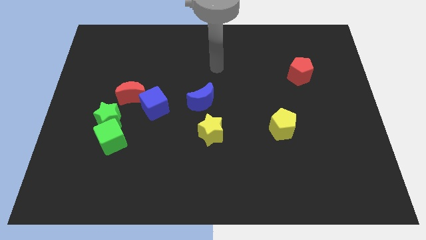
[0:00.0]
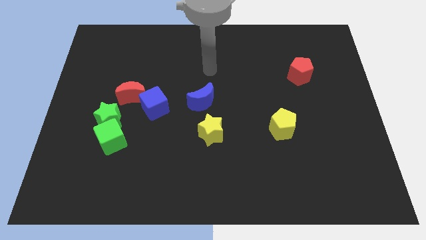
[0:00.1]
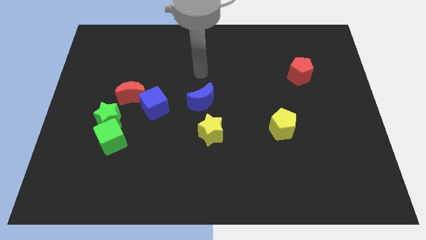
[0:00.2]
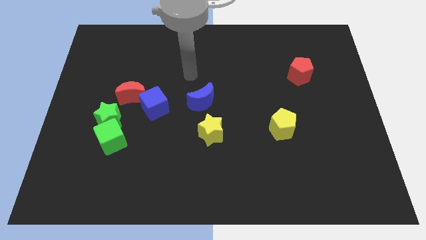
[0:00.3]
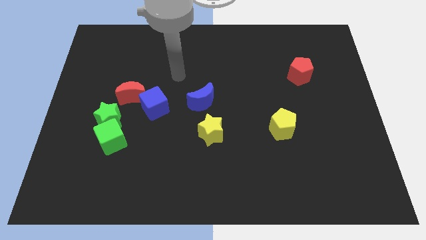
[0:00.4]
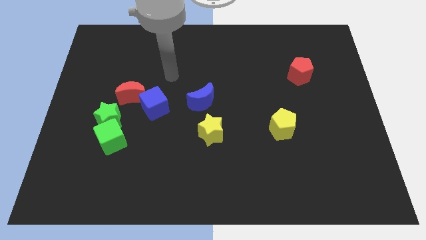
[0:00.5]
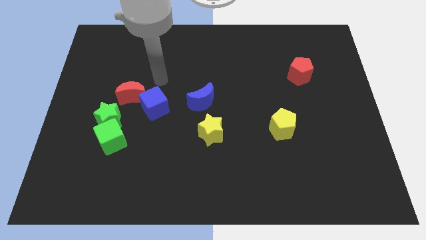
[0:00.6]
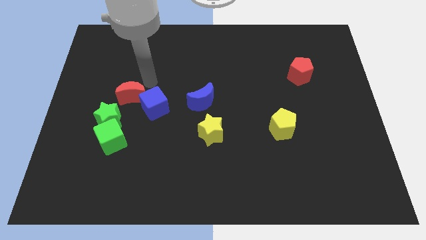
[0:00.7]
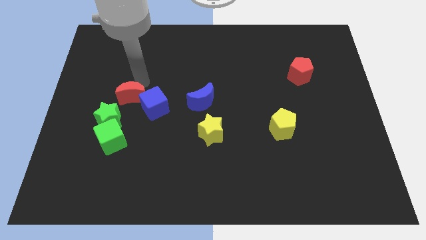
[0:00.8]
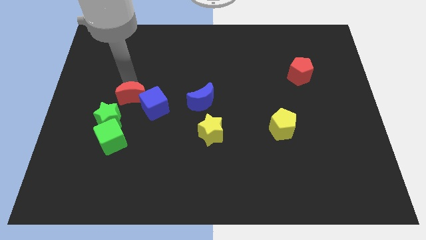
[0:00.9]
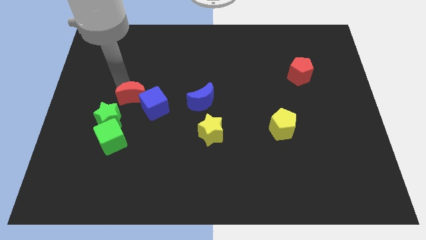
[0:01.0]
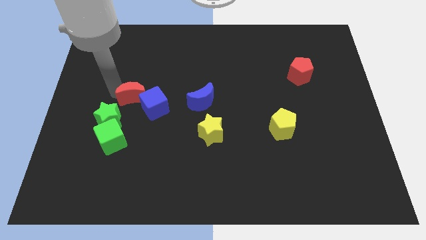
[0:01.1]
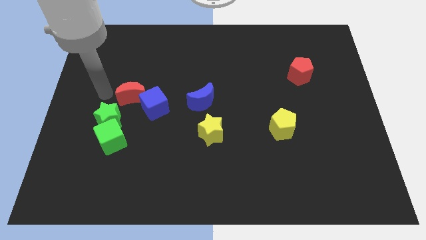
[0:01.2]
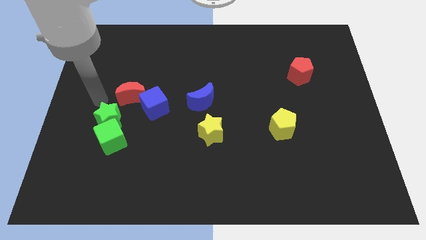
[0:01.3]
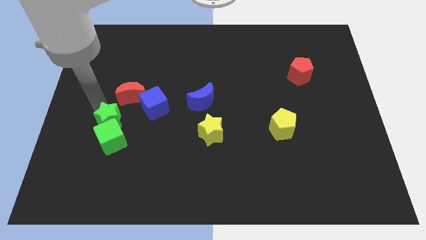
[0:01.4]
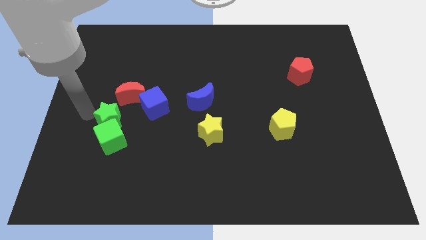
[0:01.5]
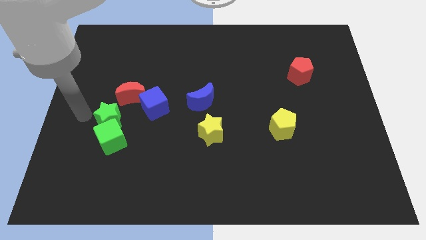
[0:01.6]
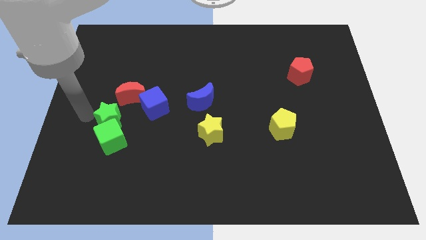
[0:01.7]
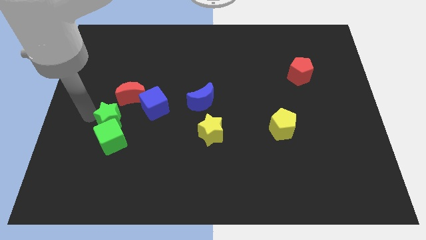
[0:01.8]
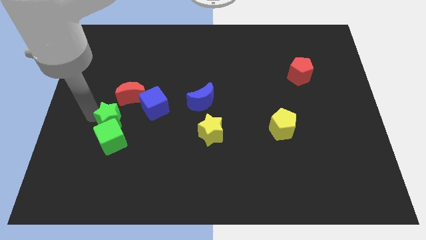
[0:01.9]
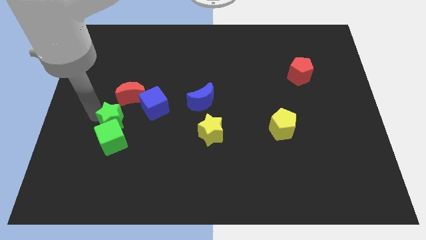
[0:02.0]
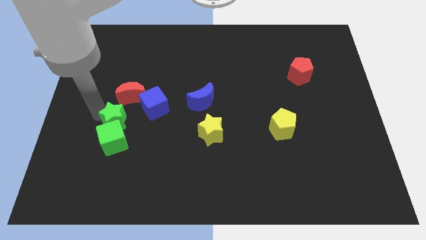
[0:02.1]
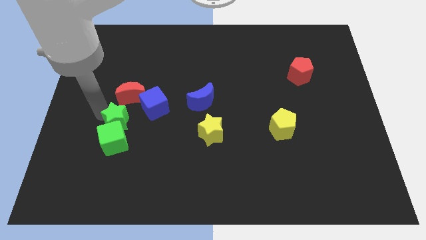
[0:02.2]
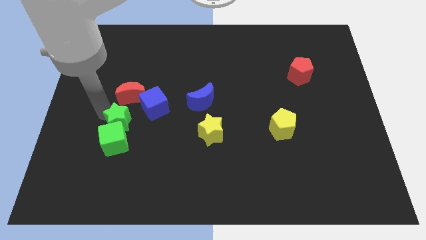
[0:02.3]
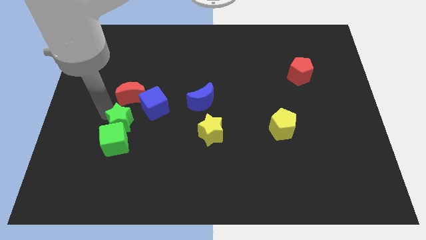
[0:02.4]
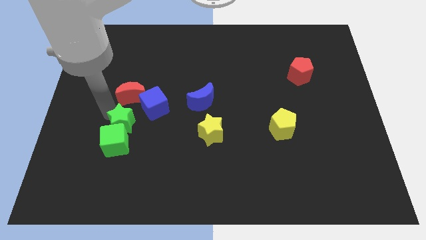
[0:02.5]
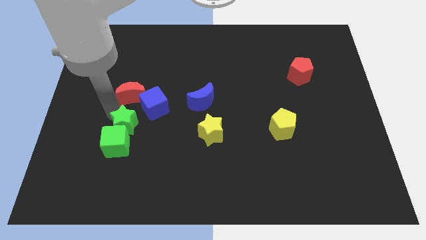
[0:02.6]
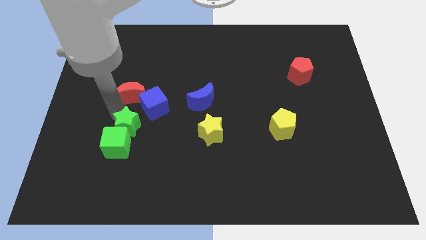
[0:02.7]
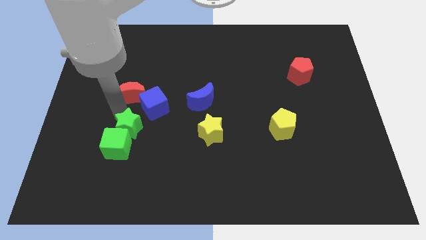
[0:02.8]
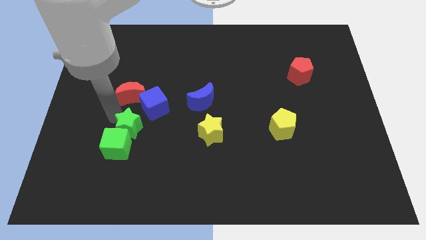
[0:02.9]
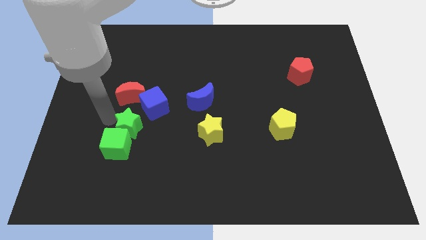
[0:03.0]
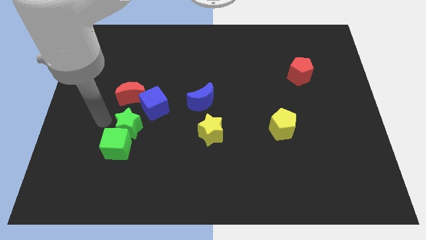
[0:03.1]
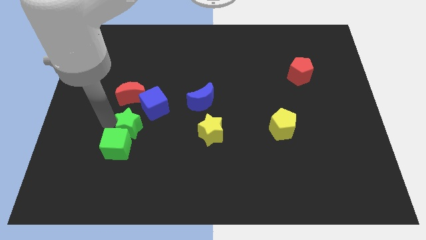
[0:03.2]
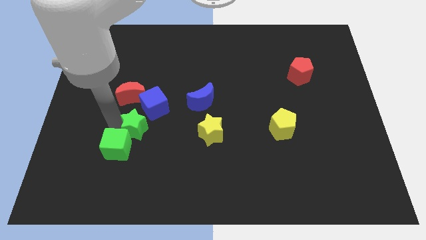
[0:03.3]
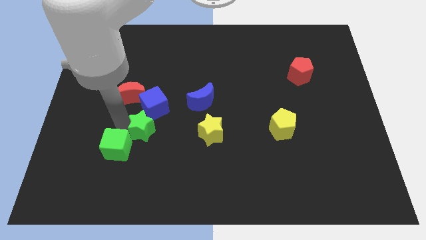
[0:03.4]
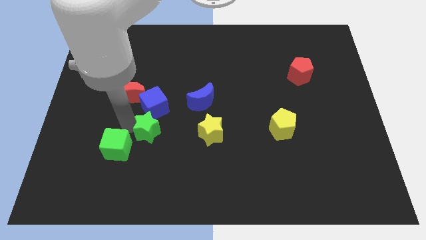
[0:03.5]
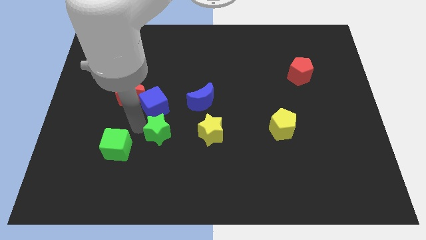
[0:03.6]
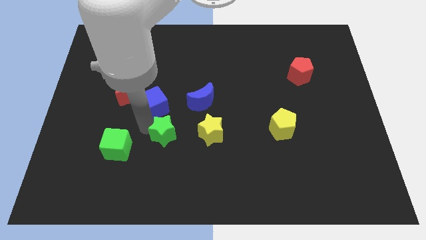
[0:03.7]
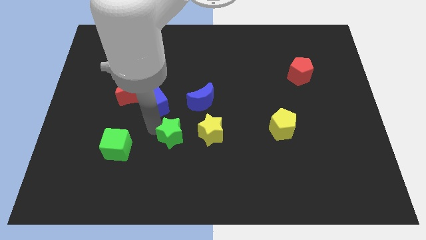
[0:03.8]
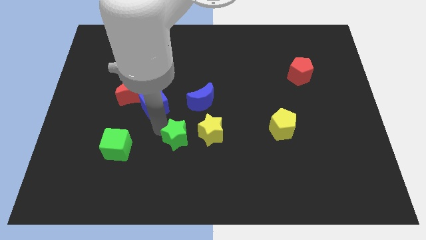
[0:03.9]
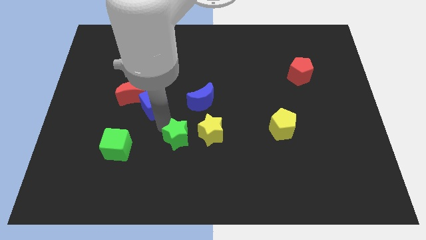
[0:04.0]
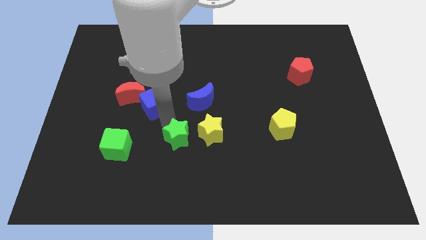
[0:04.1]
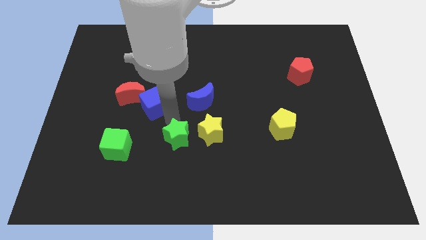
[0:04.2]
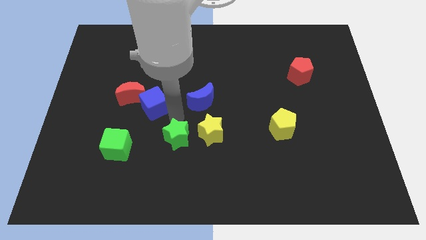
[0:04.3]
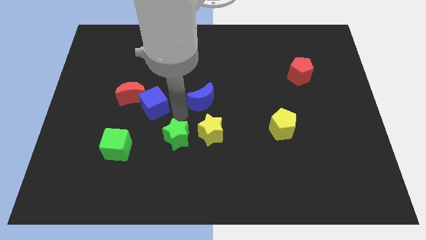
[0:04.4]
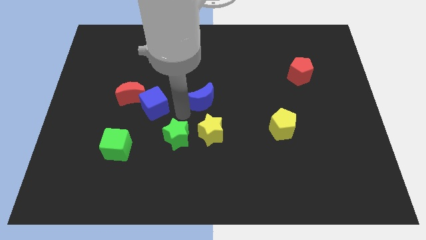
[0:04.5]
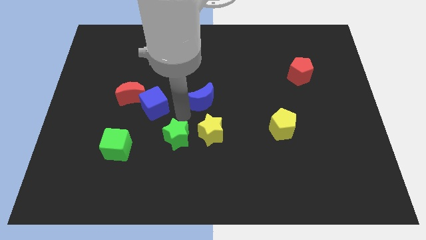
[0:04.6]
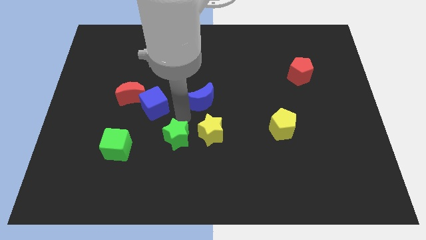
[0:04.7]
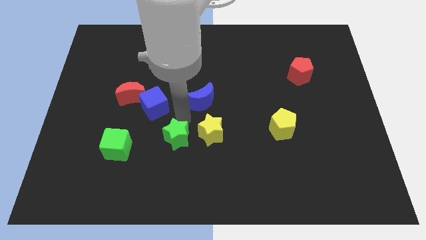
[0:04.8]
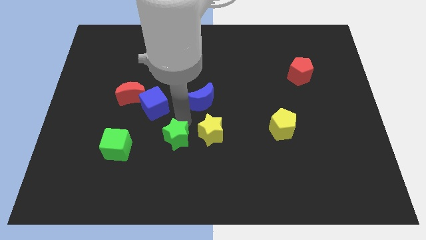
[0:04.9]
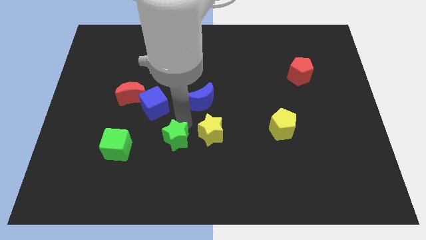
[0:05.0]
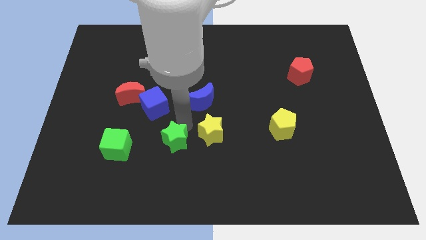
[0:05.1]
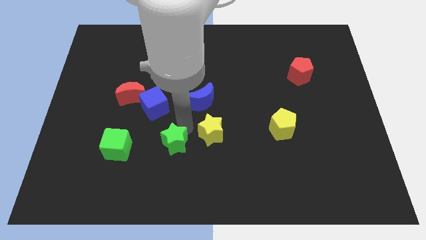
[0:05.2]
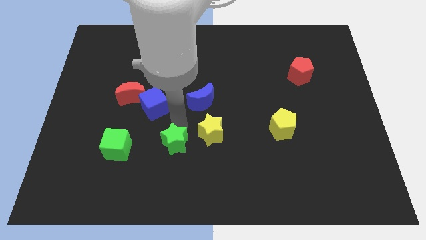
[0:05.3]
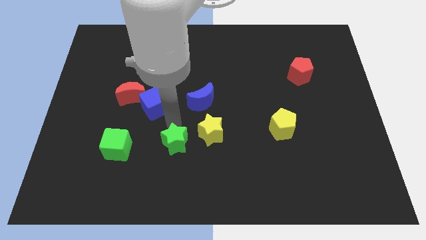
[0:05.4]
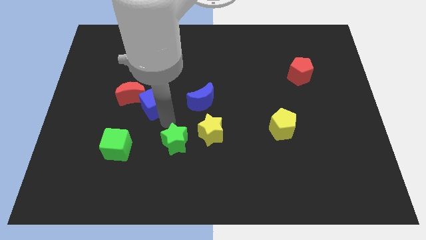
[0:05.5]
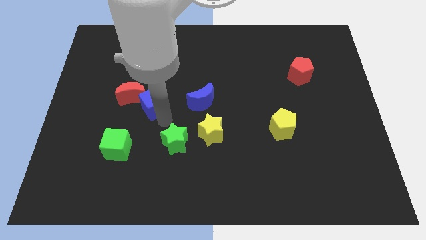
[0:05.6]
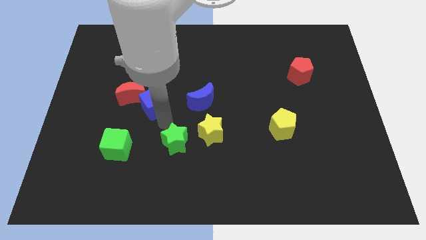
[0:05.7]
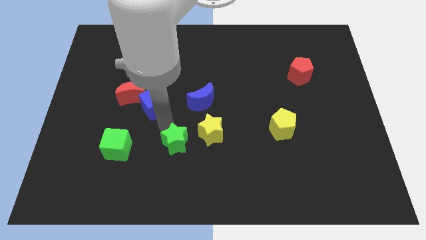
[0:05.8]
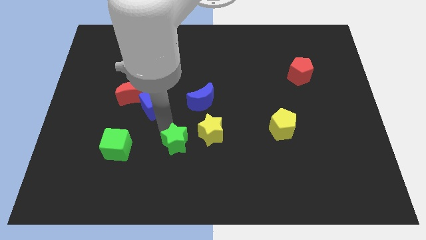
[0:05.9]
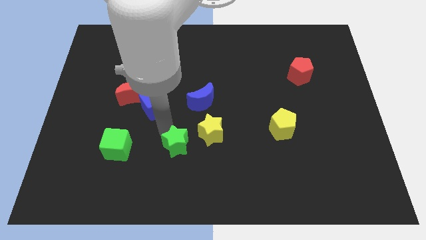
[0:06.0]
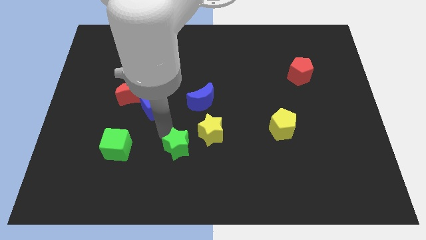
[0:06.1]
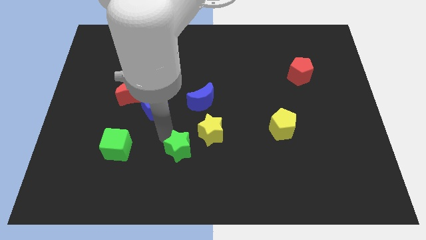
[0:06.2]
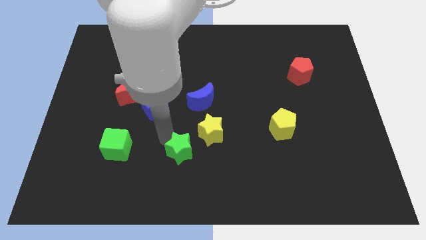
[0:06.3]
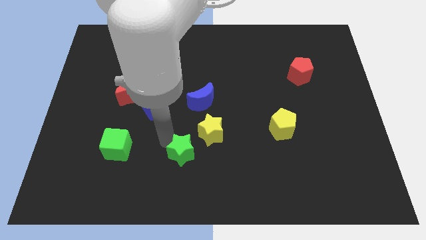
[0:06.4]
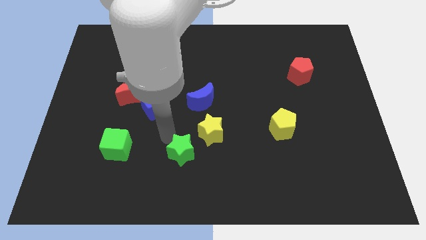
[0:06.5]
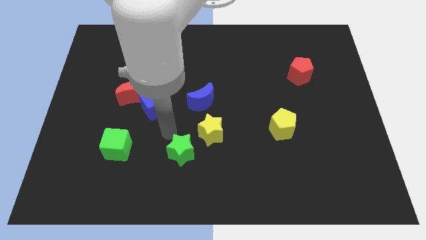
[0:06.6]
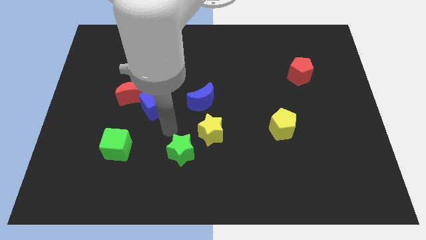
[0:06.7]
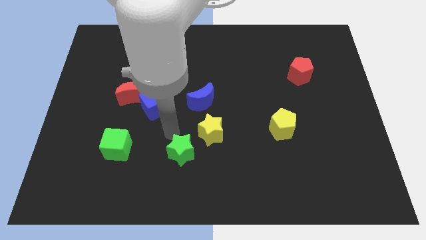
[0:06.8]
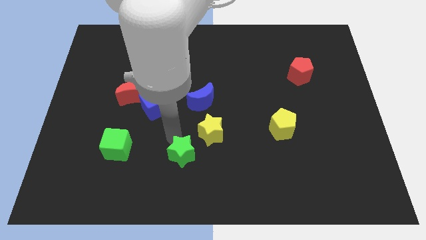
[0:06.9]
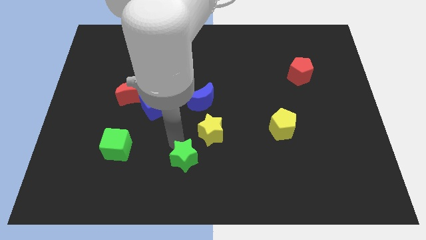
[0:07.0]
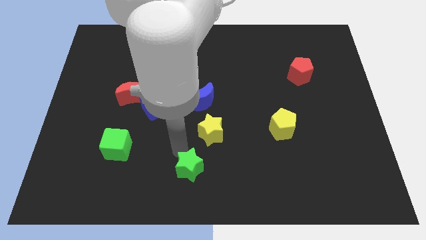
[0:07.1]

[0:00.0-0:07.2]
push the green star to the bottom side

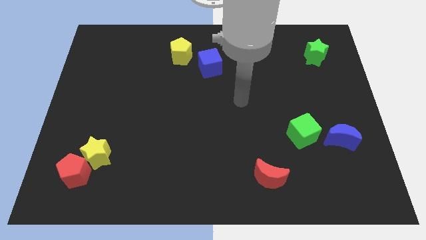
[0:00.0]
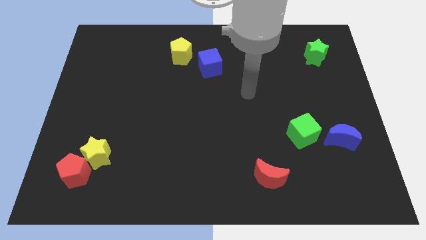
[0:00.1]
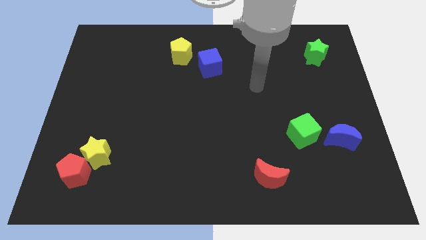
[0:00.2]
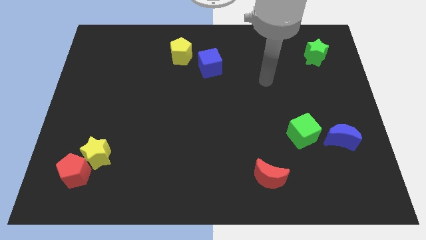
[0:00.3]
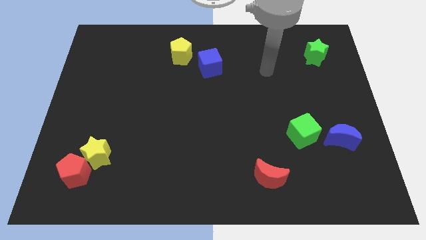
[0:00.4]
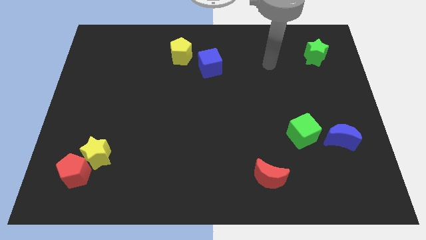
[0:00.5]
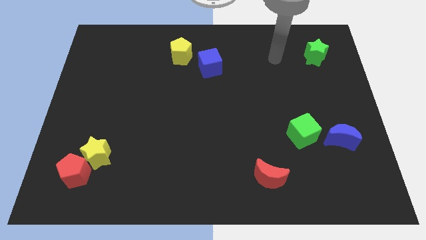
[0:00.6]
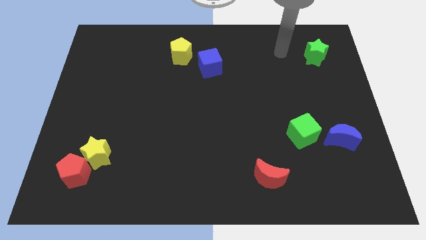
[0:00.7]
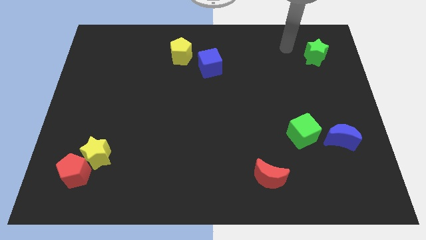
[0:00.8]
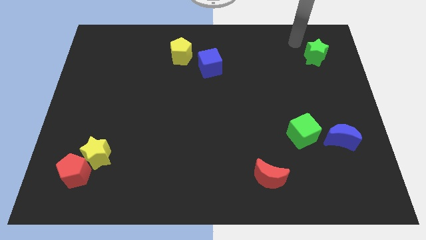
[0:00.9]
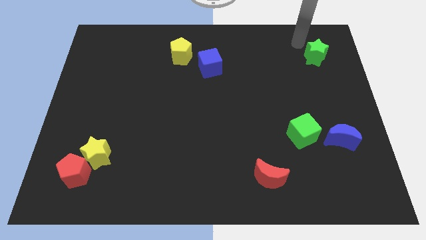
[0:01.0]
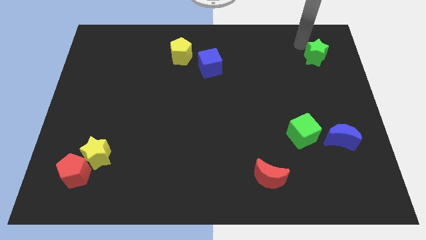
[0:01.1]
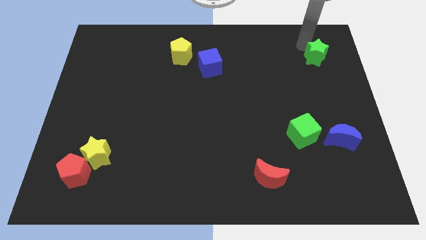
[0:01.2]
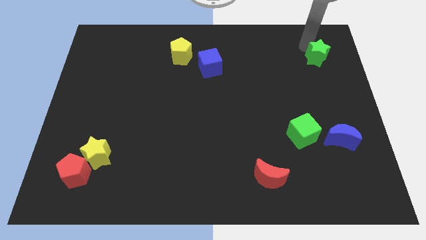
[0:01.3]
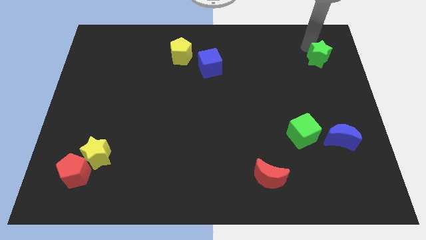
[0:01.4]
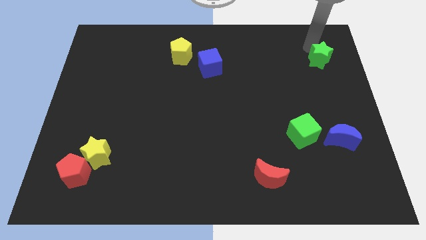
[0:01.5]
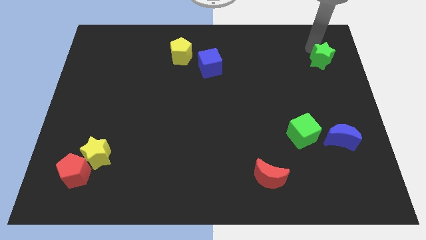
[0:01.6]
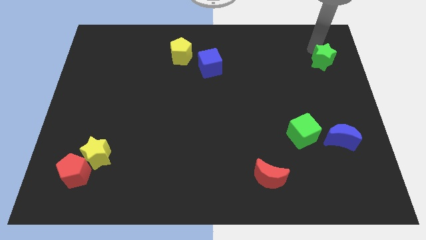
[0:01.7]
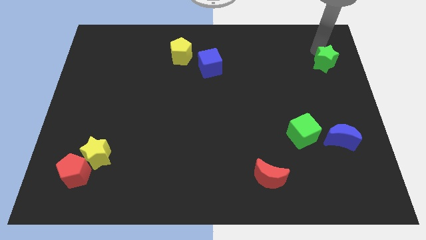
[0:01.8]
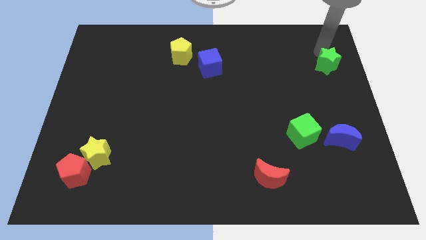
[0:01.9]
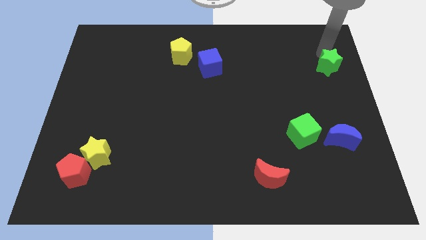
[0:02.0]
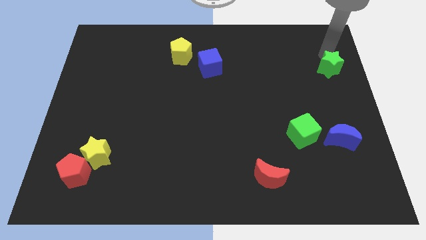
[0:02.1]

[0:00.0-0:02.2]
move the green star to the right side
